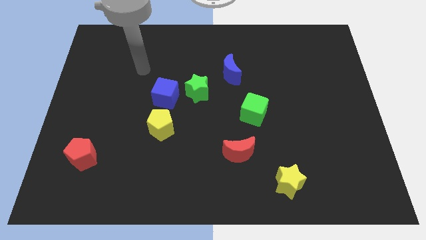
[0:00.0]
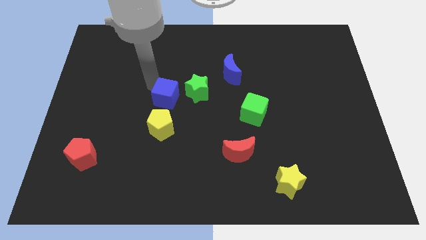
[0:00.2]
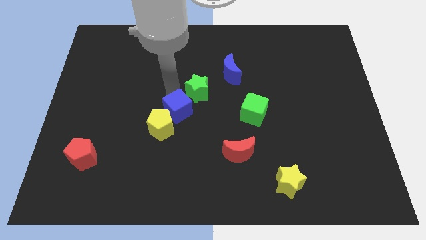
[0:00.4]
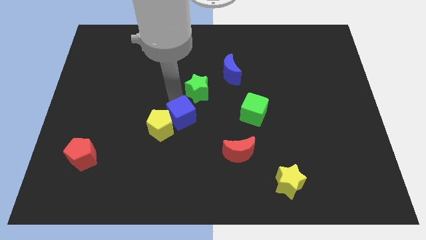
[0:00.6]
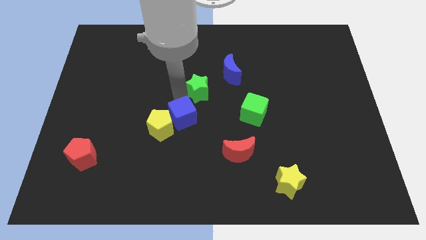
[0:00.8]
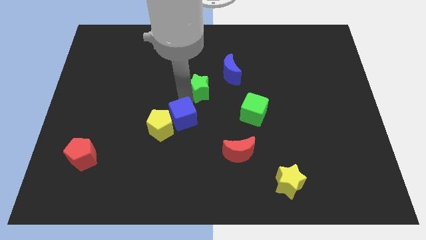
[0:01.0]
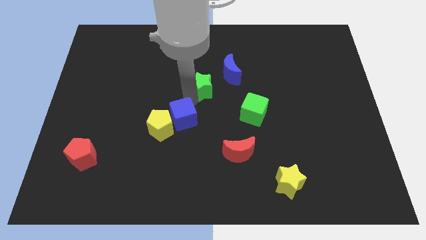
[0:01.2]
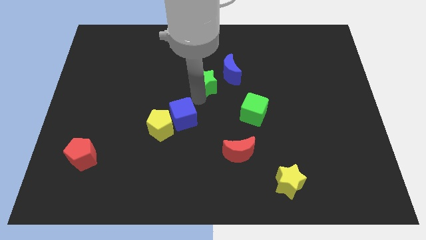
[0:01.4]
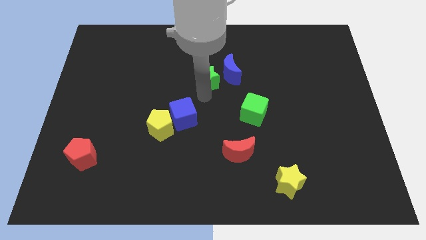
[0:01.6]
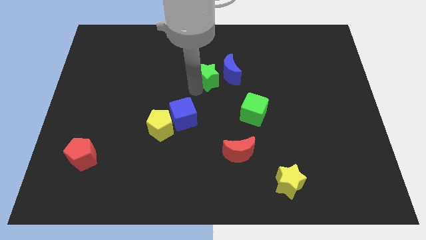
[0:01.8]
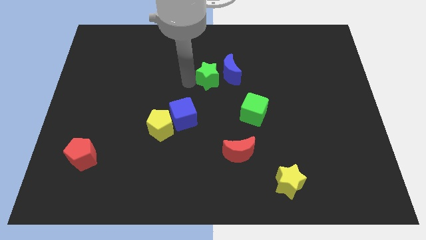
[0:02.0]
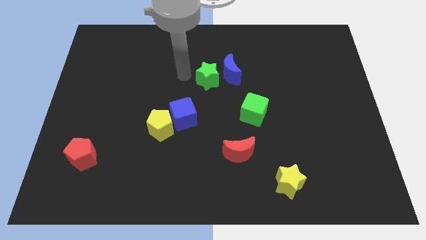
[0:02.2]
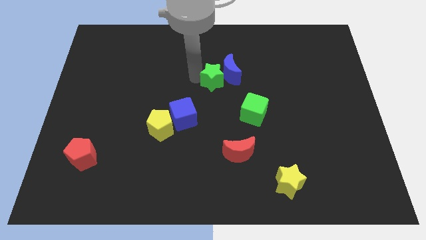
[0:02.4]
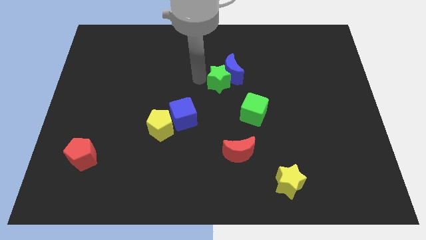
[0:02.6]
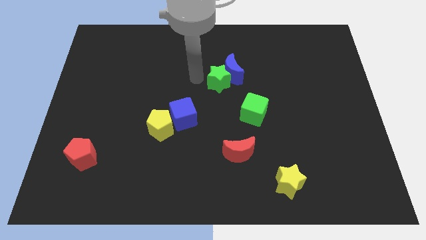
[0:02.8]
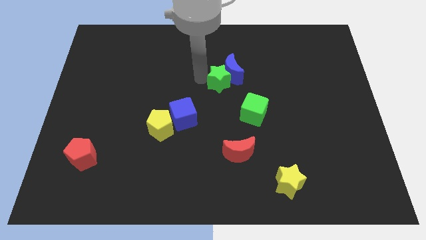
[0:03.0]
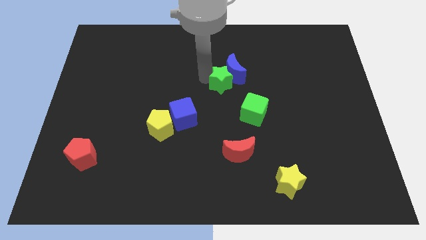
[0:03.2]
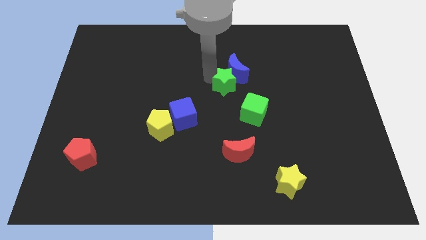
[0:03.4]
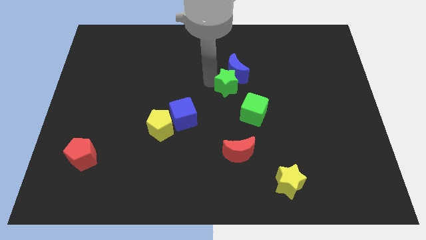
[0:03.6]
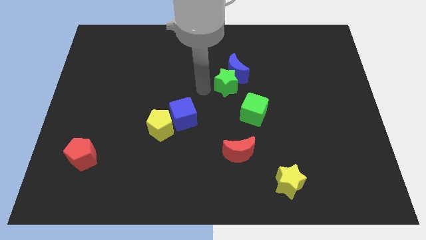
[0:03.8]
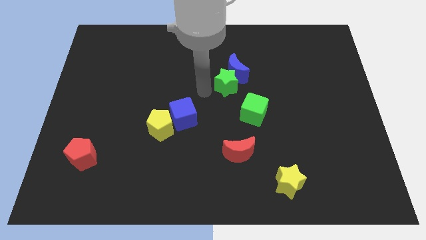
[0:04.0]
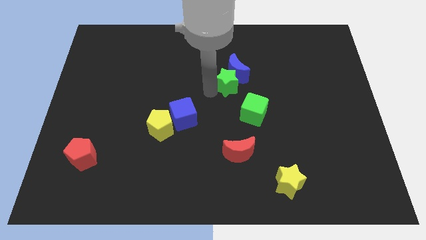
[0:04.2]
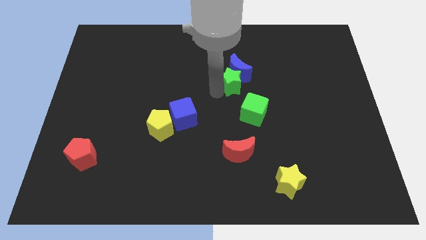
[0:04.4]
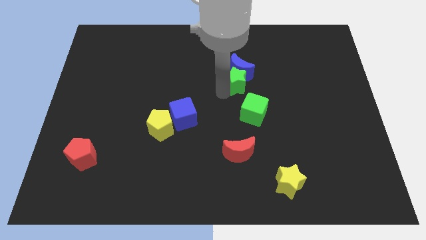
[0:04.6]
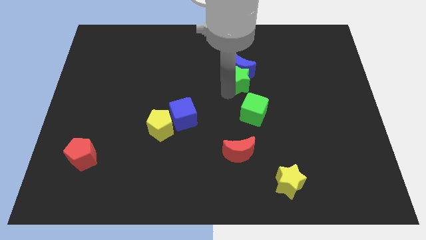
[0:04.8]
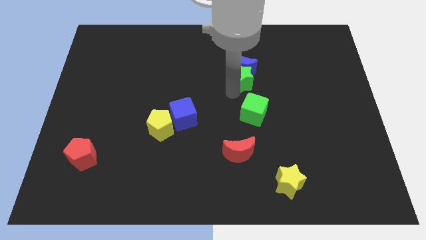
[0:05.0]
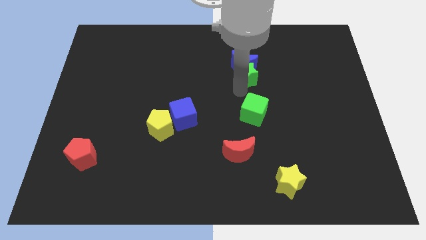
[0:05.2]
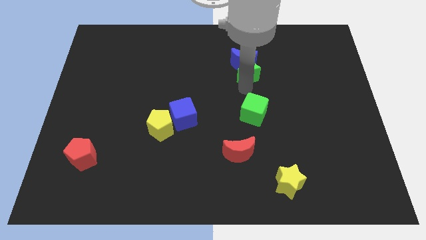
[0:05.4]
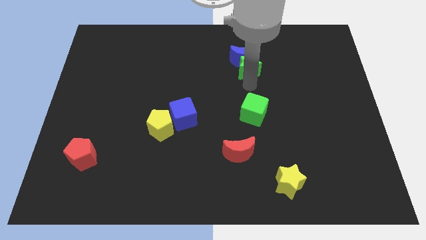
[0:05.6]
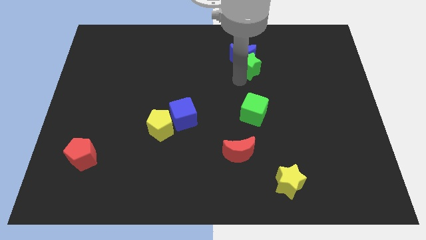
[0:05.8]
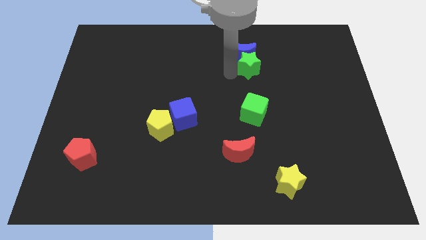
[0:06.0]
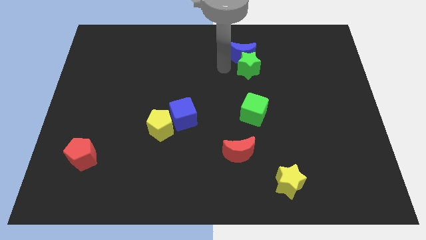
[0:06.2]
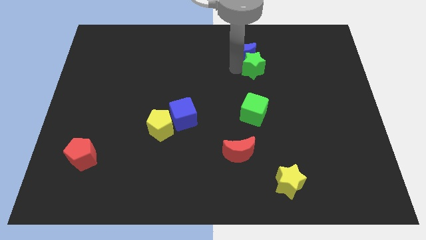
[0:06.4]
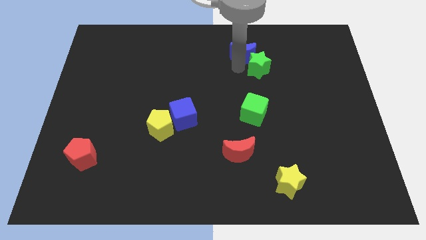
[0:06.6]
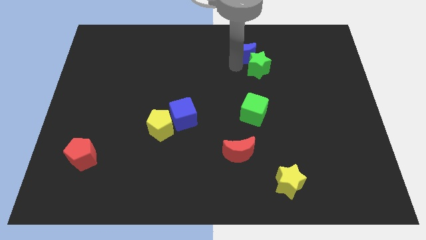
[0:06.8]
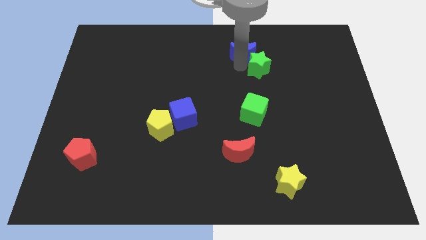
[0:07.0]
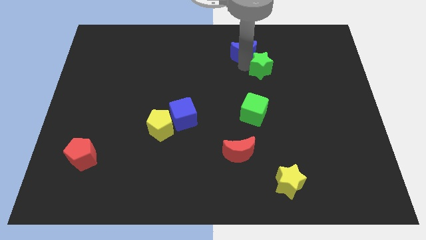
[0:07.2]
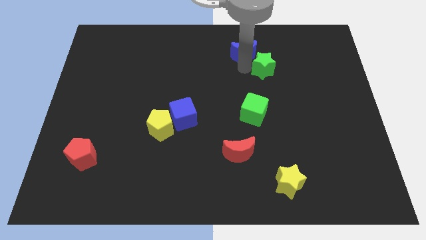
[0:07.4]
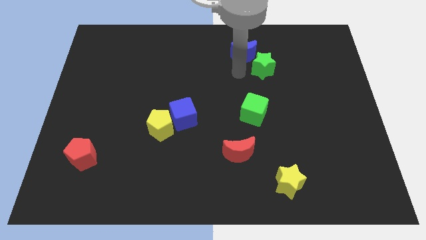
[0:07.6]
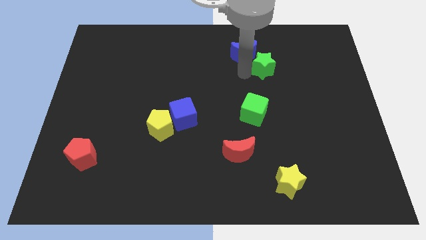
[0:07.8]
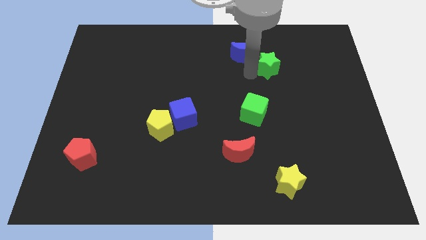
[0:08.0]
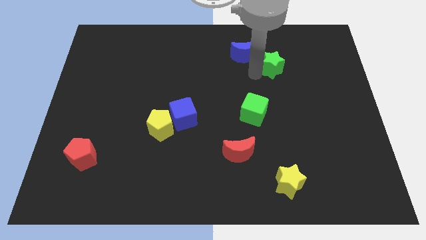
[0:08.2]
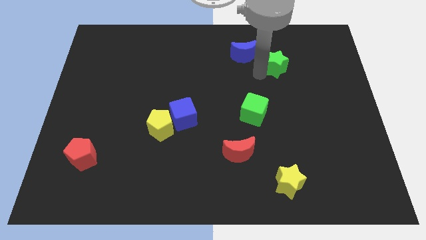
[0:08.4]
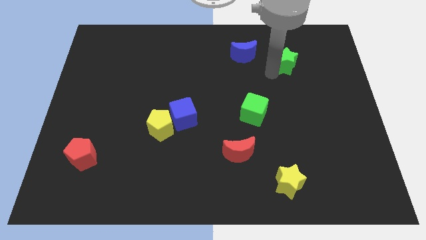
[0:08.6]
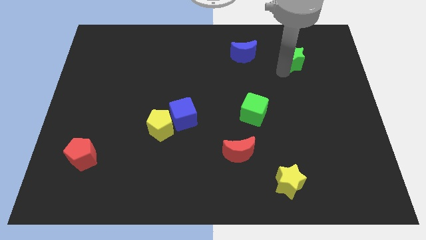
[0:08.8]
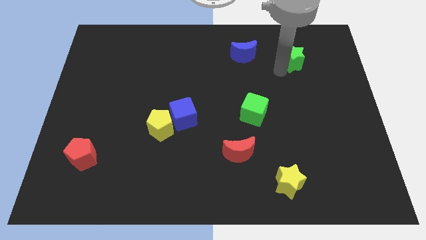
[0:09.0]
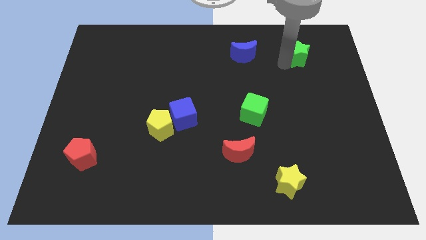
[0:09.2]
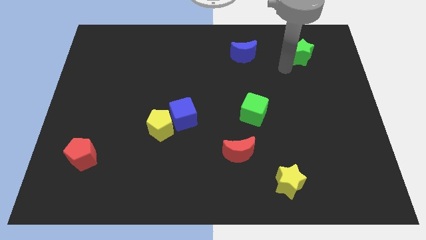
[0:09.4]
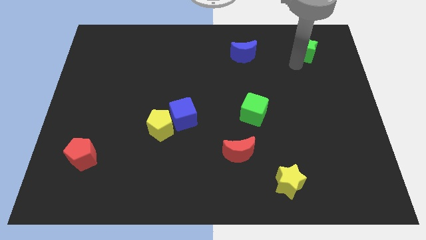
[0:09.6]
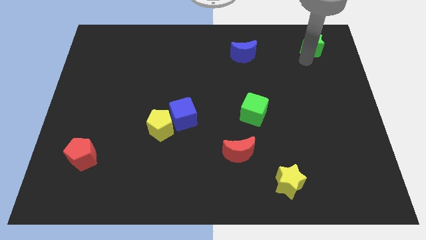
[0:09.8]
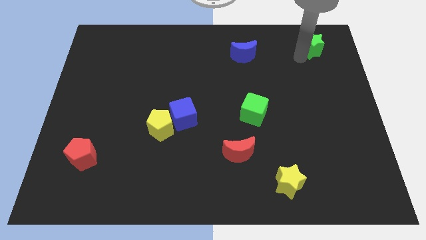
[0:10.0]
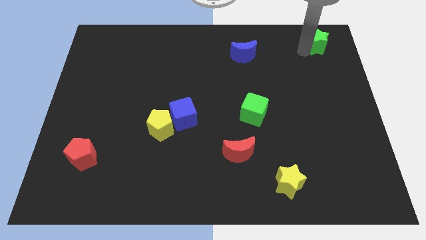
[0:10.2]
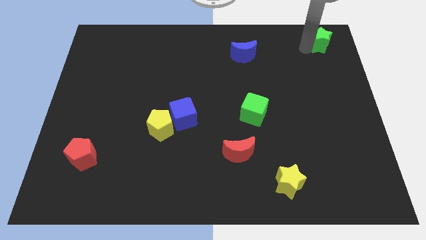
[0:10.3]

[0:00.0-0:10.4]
move the green star to the top right corner

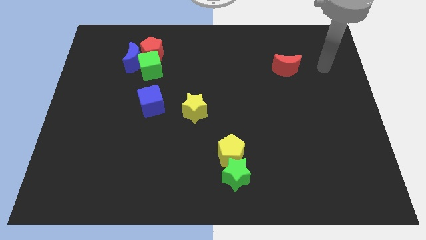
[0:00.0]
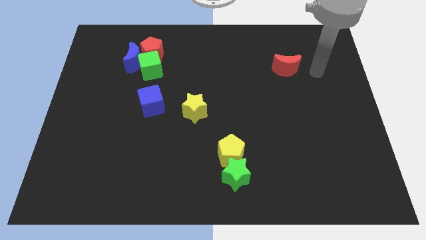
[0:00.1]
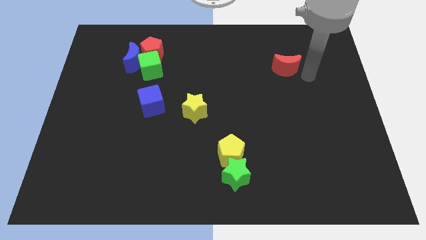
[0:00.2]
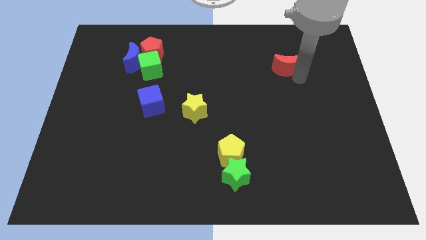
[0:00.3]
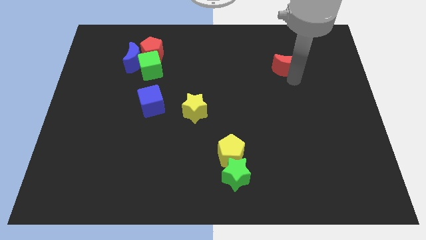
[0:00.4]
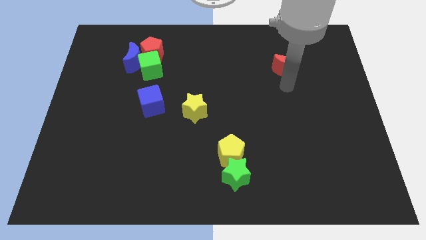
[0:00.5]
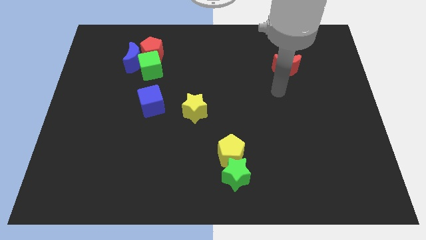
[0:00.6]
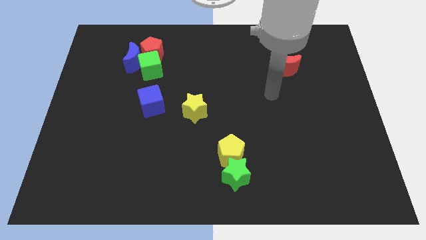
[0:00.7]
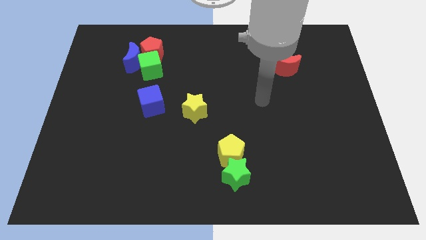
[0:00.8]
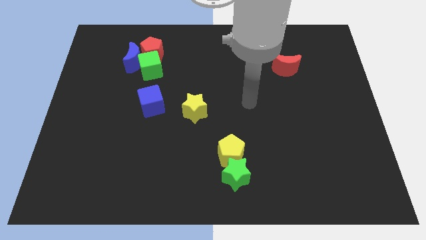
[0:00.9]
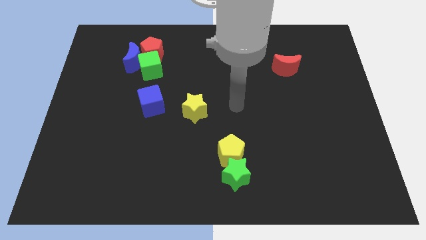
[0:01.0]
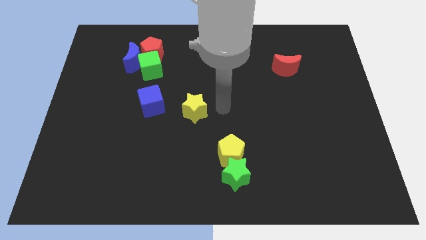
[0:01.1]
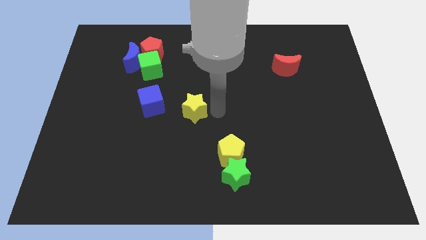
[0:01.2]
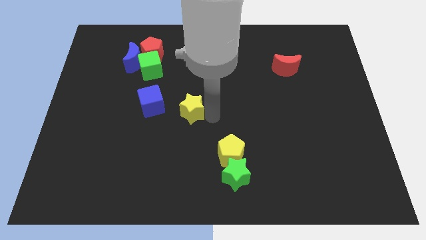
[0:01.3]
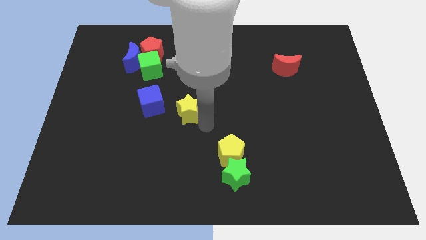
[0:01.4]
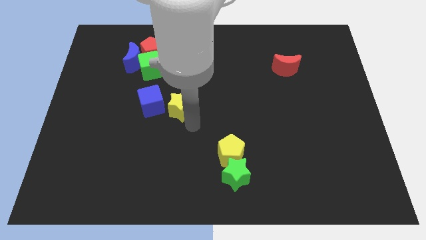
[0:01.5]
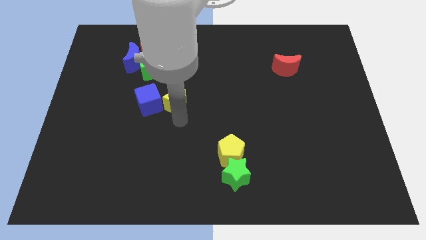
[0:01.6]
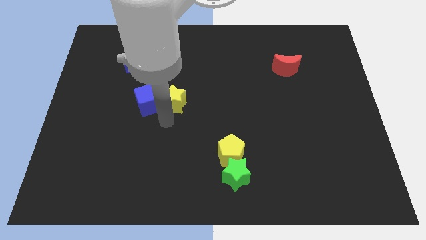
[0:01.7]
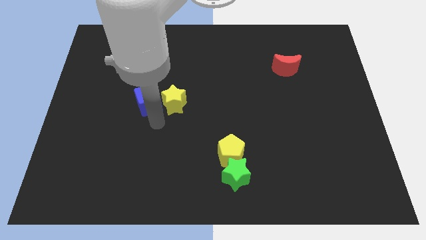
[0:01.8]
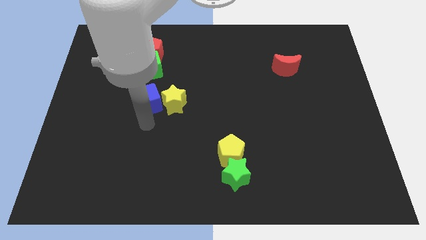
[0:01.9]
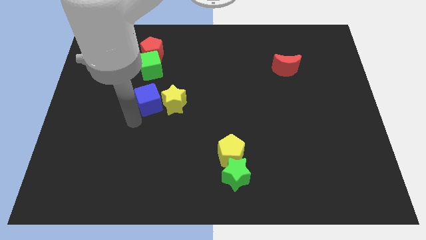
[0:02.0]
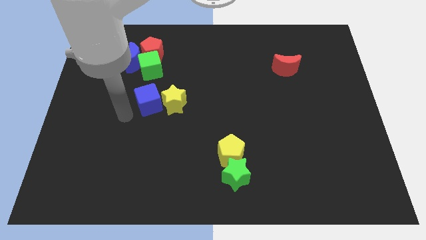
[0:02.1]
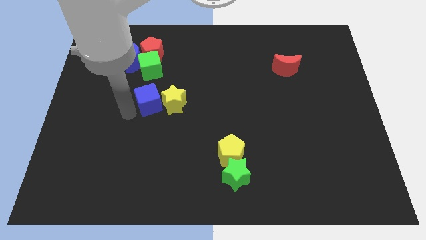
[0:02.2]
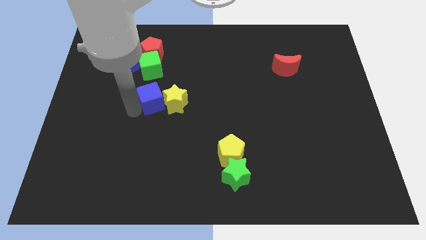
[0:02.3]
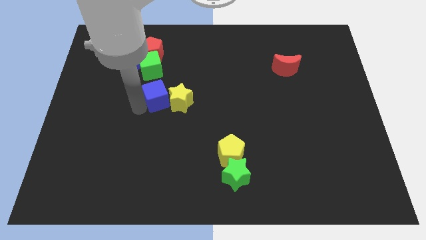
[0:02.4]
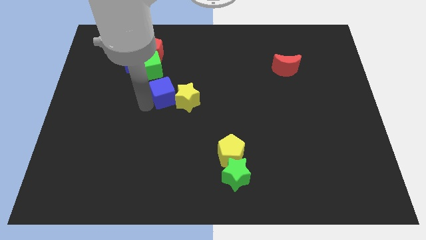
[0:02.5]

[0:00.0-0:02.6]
move the blue cube to the middle of the board
